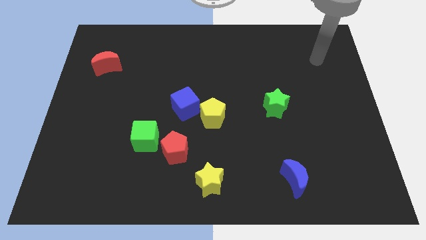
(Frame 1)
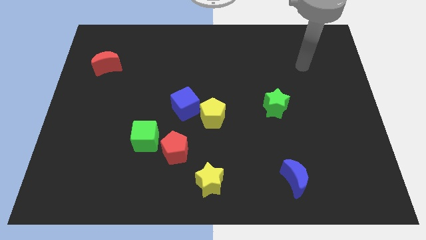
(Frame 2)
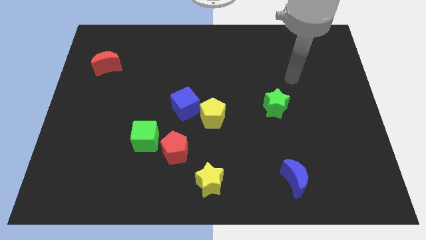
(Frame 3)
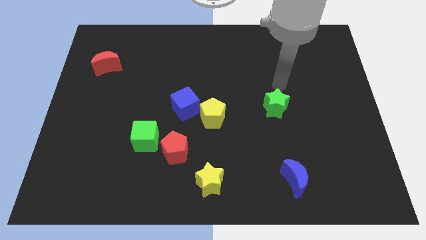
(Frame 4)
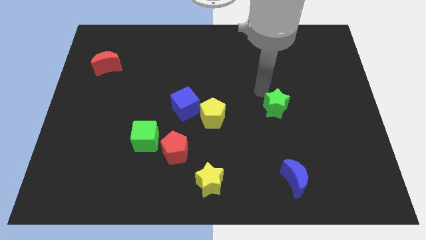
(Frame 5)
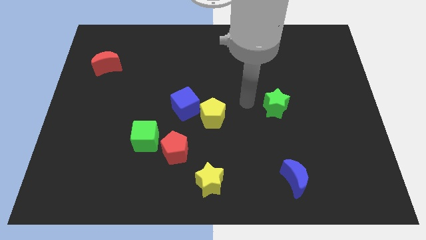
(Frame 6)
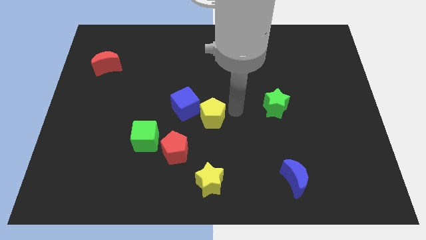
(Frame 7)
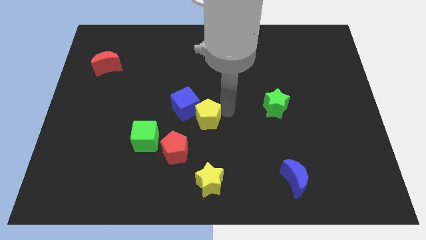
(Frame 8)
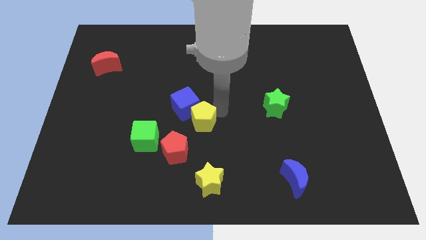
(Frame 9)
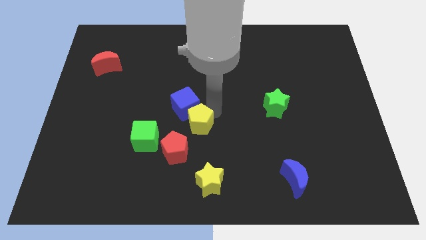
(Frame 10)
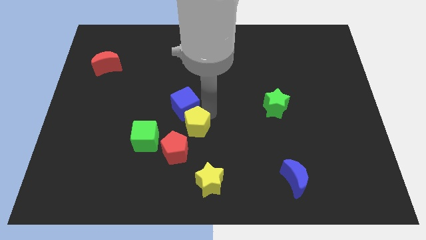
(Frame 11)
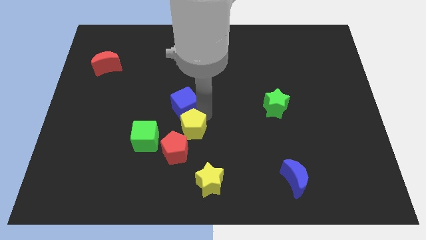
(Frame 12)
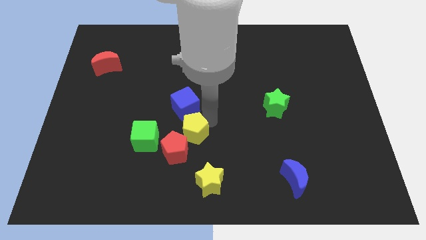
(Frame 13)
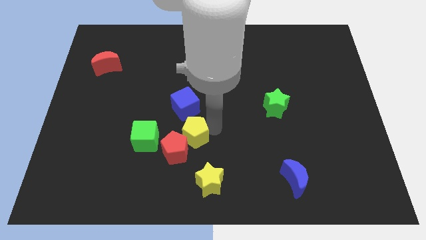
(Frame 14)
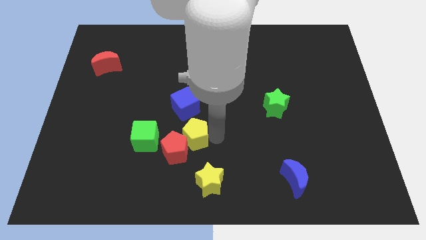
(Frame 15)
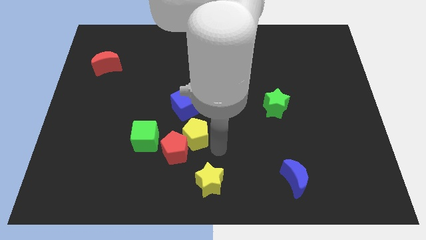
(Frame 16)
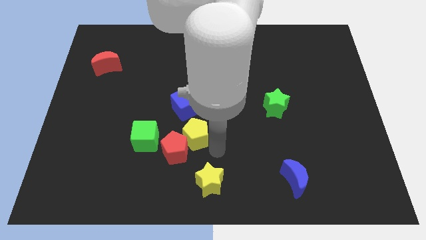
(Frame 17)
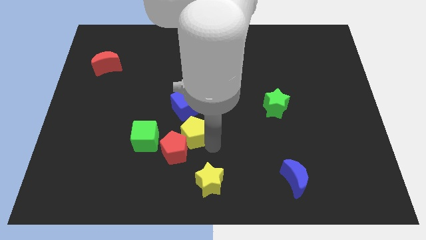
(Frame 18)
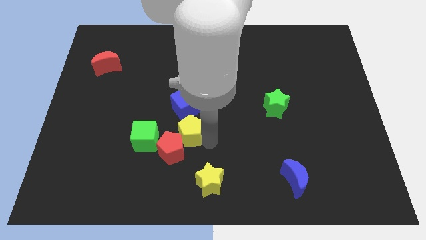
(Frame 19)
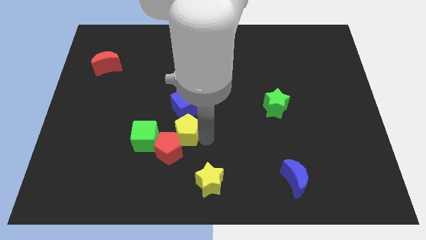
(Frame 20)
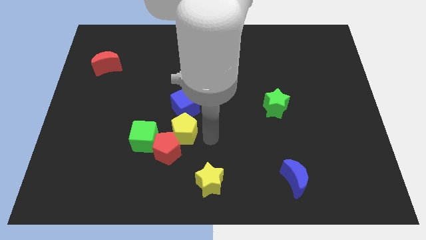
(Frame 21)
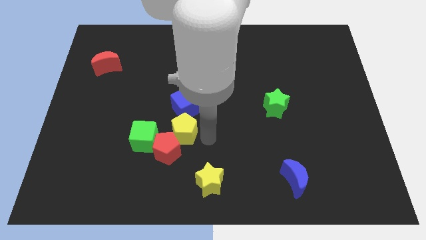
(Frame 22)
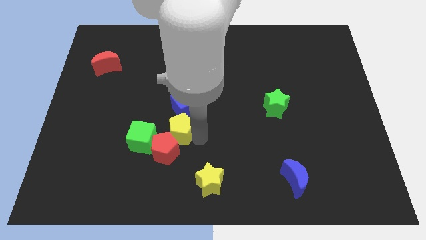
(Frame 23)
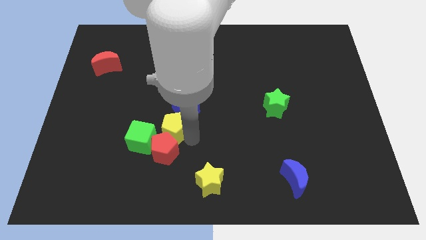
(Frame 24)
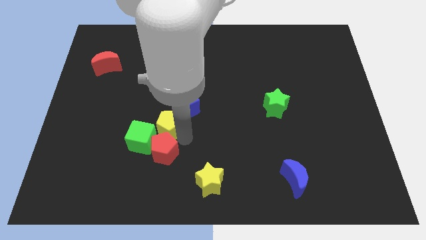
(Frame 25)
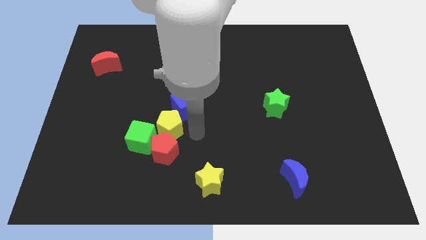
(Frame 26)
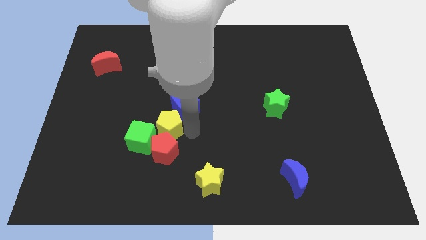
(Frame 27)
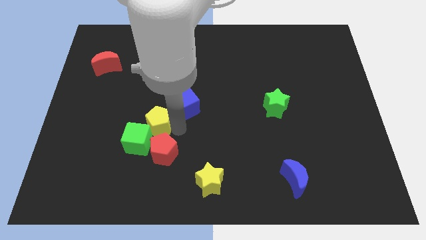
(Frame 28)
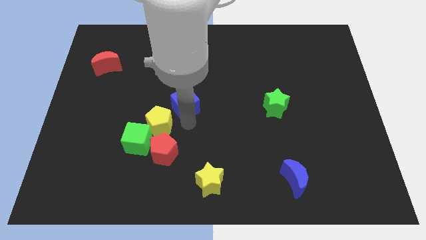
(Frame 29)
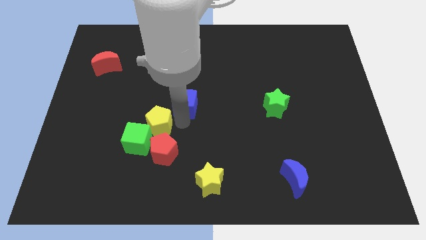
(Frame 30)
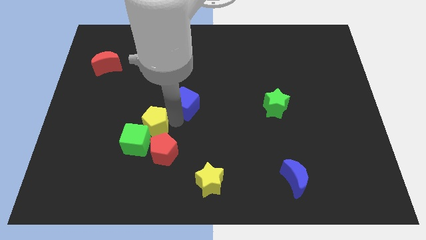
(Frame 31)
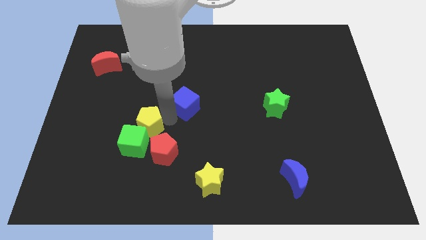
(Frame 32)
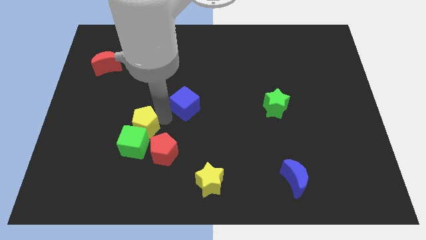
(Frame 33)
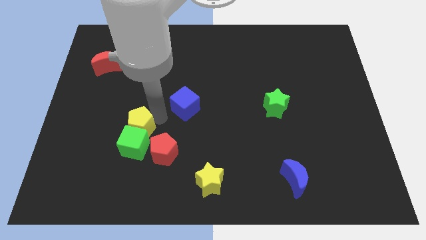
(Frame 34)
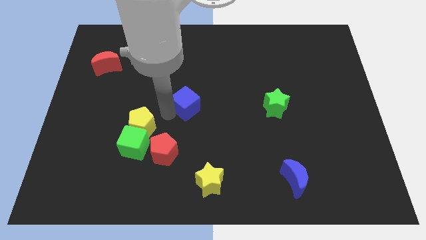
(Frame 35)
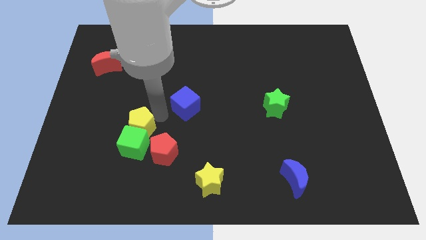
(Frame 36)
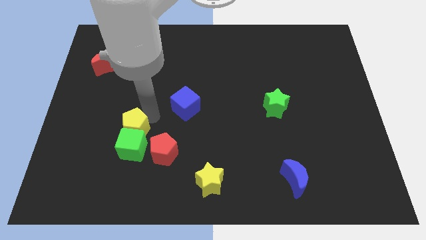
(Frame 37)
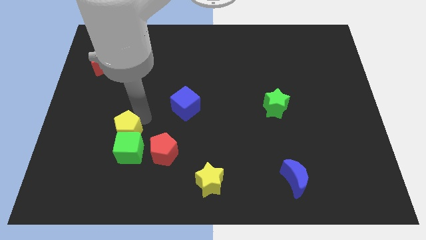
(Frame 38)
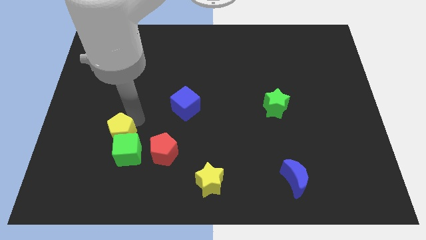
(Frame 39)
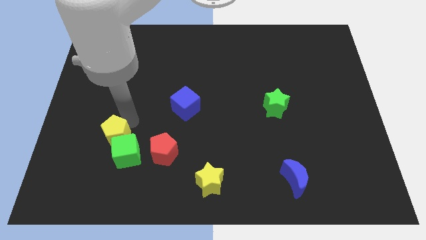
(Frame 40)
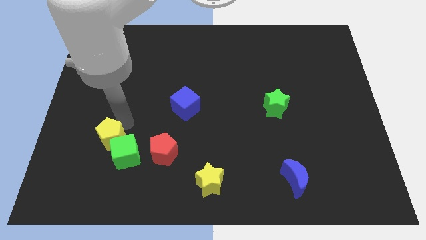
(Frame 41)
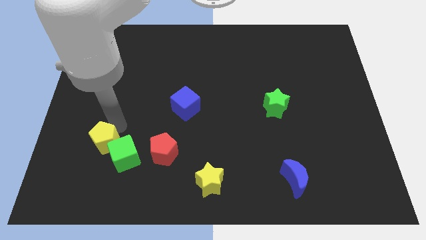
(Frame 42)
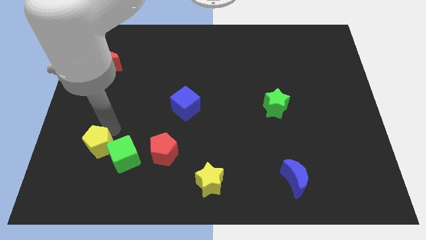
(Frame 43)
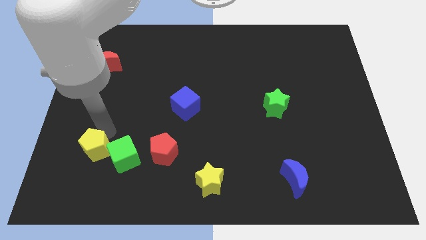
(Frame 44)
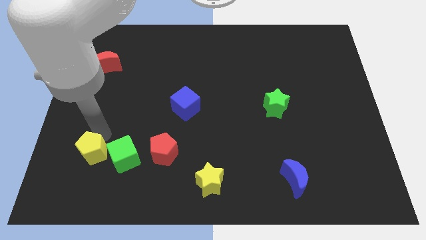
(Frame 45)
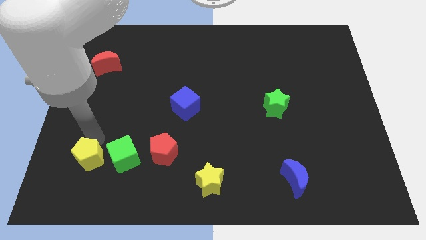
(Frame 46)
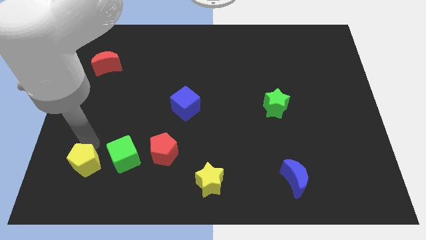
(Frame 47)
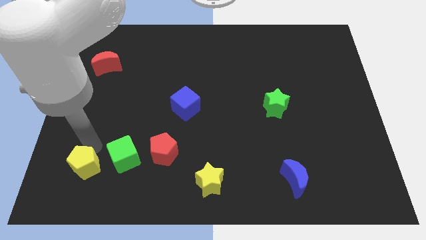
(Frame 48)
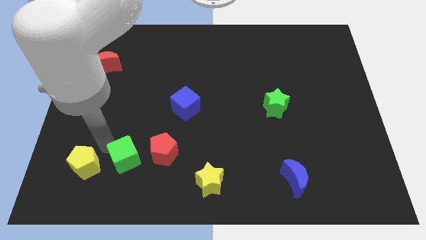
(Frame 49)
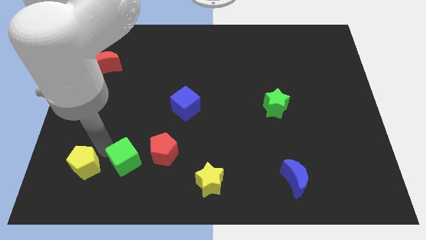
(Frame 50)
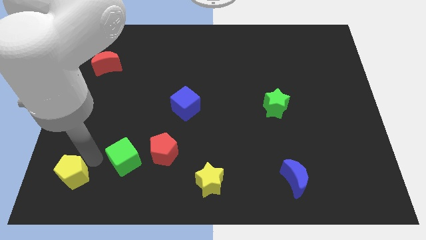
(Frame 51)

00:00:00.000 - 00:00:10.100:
put the yellow pentagon to the bottom left

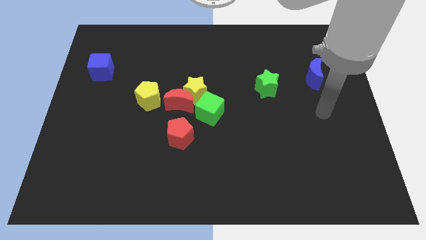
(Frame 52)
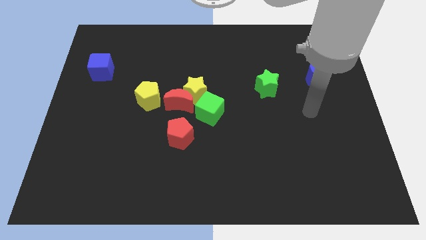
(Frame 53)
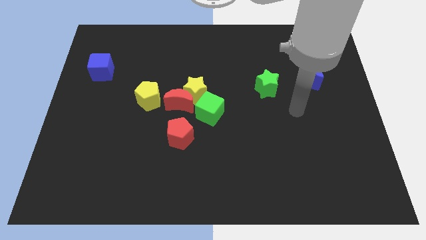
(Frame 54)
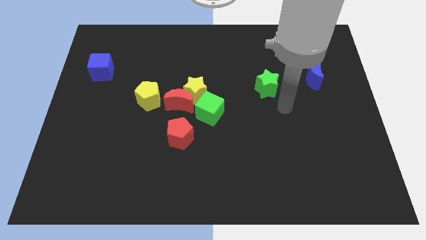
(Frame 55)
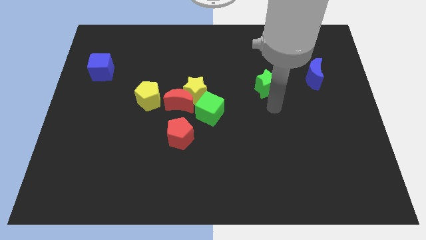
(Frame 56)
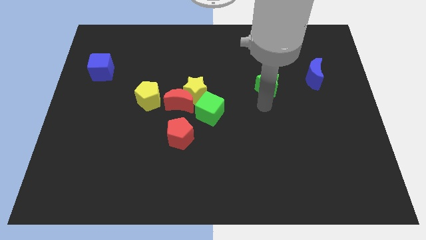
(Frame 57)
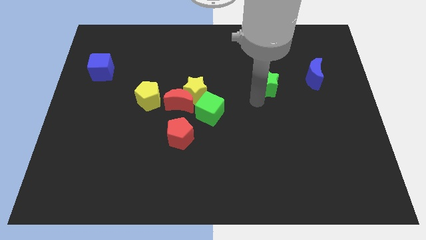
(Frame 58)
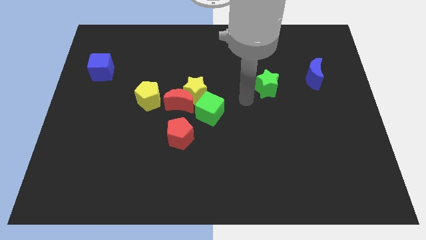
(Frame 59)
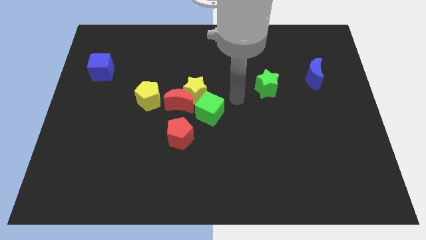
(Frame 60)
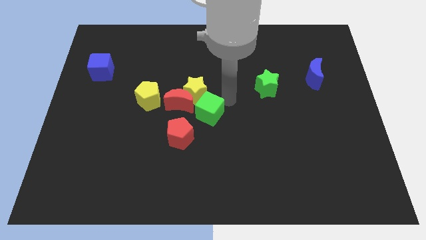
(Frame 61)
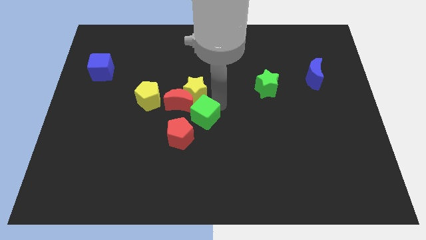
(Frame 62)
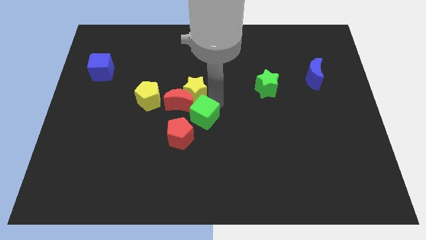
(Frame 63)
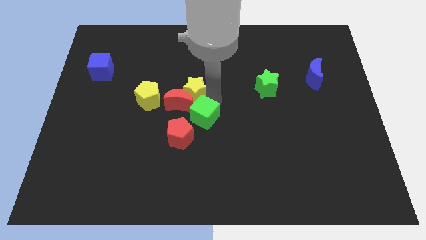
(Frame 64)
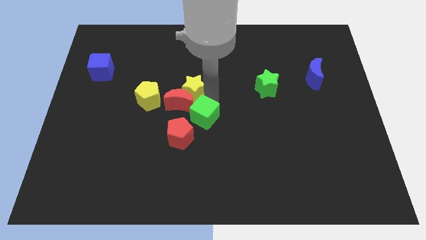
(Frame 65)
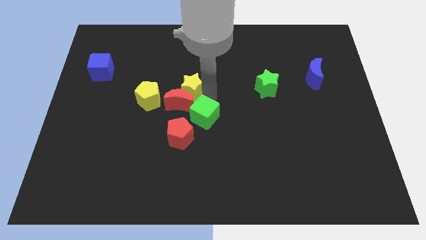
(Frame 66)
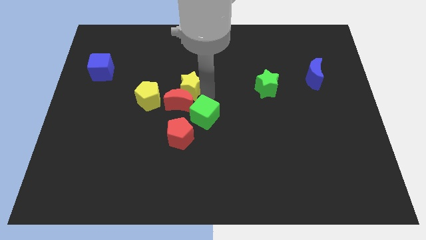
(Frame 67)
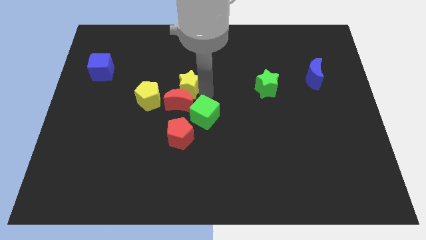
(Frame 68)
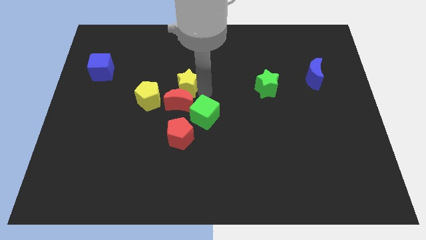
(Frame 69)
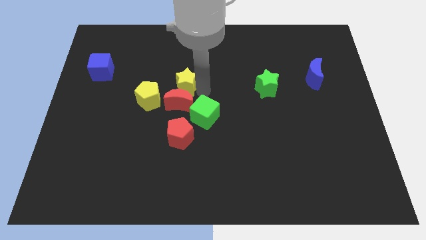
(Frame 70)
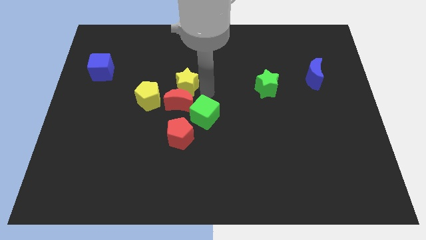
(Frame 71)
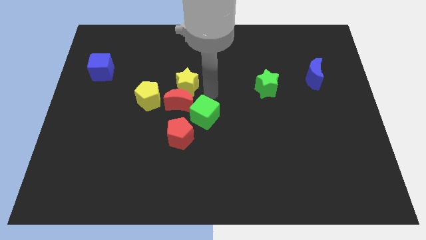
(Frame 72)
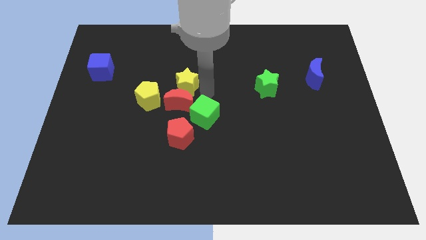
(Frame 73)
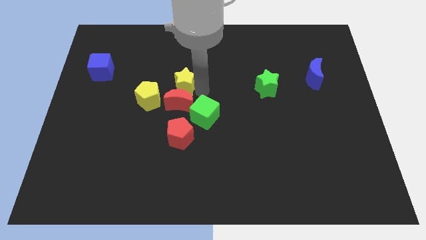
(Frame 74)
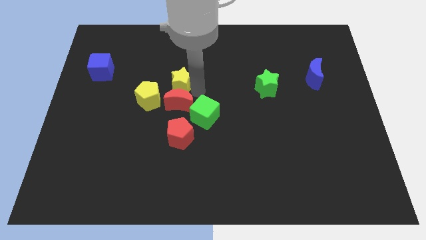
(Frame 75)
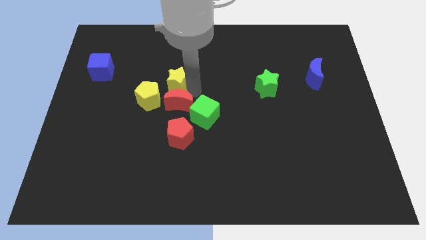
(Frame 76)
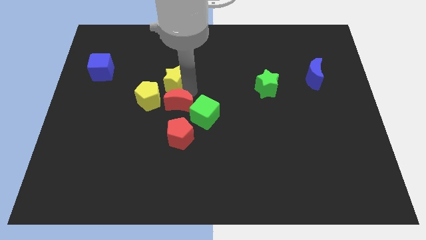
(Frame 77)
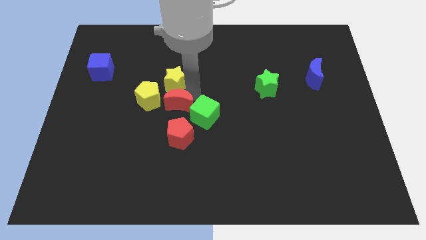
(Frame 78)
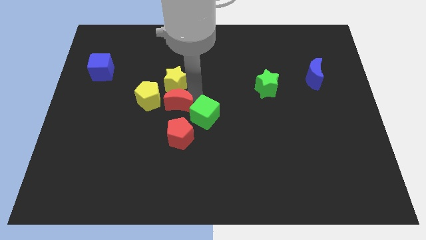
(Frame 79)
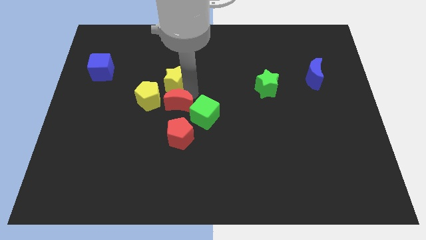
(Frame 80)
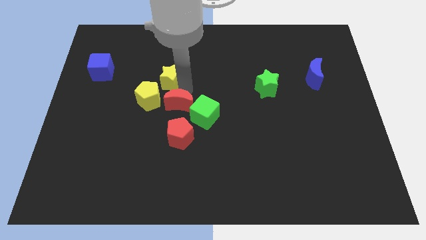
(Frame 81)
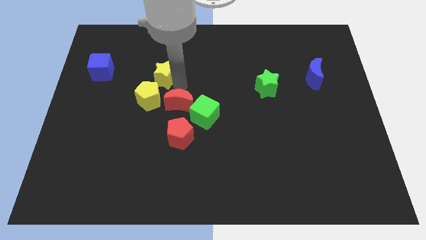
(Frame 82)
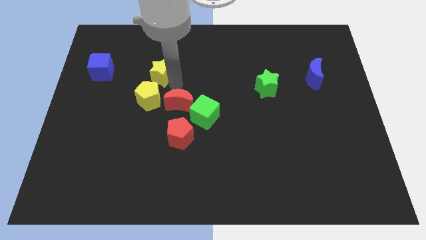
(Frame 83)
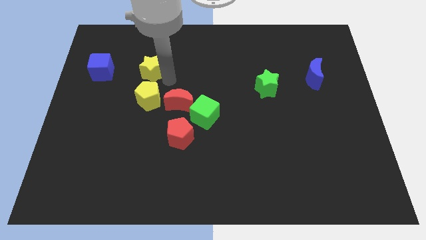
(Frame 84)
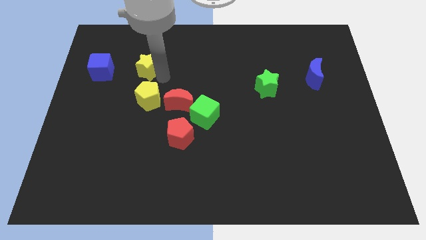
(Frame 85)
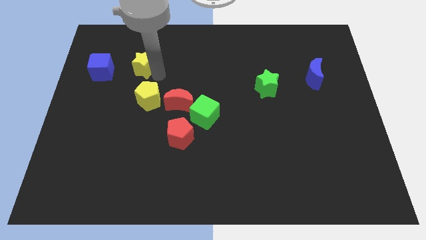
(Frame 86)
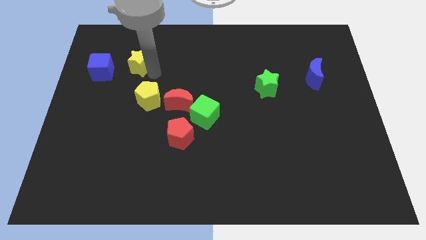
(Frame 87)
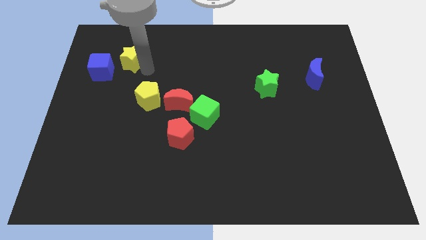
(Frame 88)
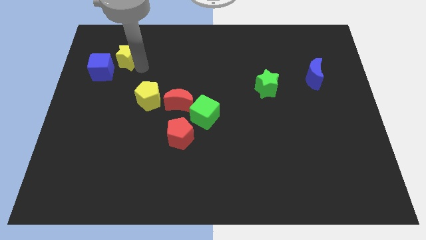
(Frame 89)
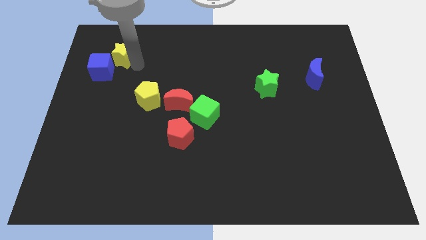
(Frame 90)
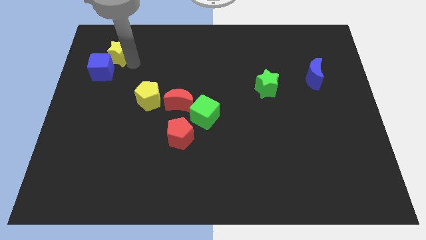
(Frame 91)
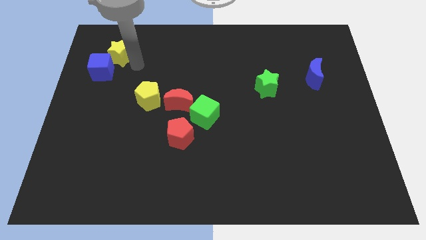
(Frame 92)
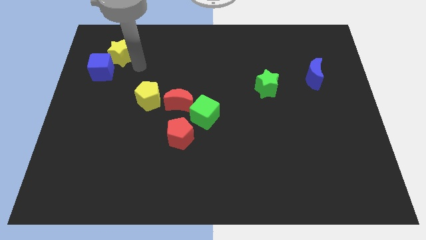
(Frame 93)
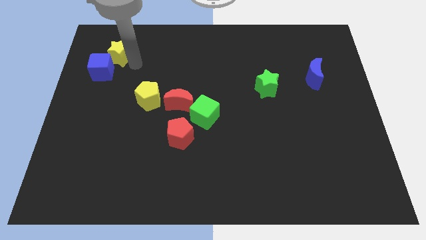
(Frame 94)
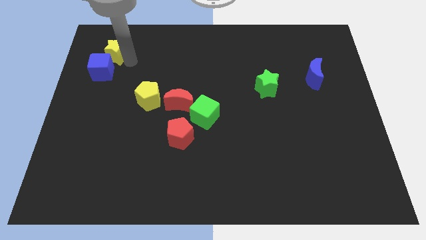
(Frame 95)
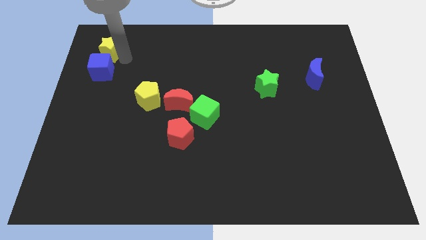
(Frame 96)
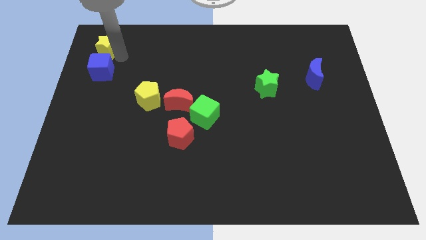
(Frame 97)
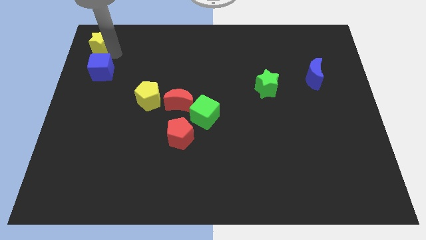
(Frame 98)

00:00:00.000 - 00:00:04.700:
slide the yellow star to the top left corner
